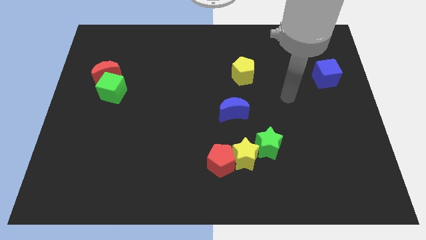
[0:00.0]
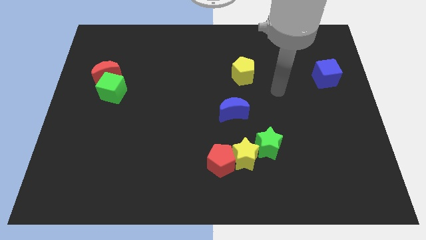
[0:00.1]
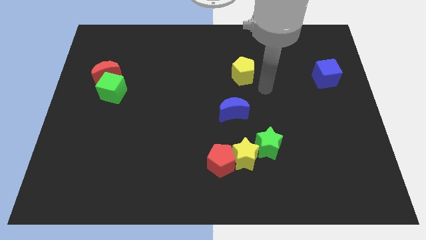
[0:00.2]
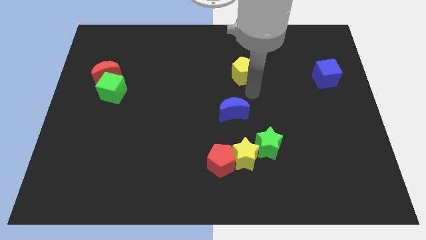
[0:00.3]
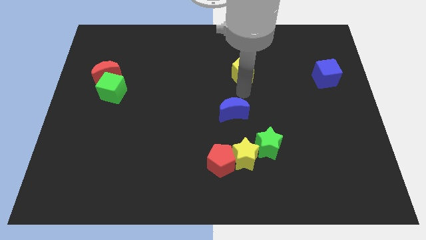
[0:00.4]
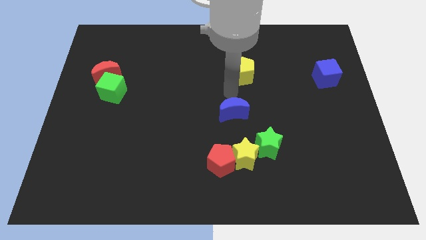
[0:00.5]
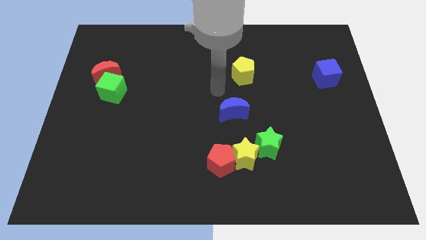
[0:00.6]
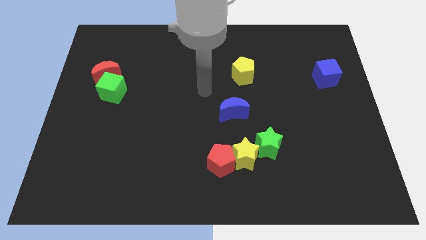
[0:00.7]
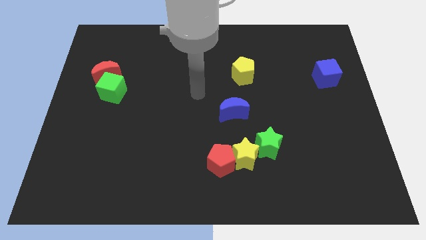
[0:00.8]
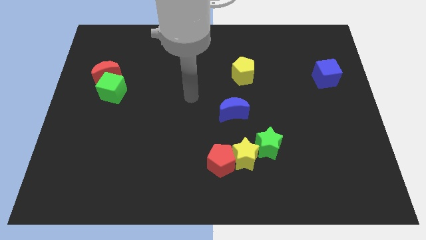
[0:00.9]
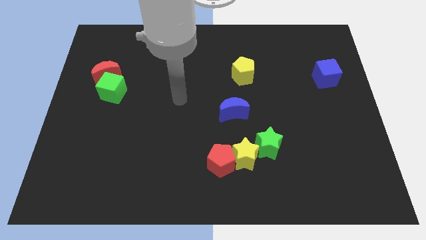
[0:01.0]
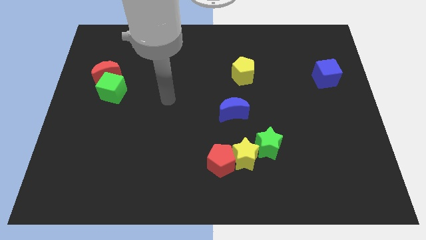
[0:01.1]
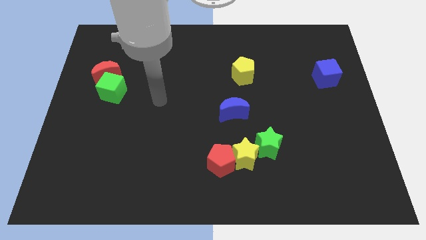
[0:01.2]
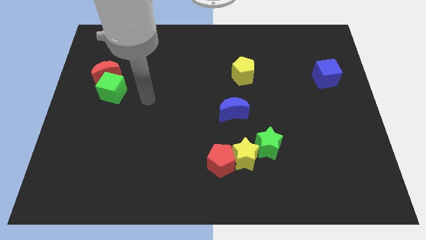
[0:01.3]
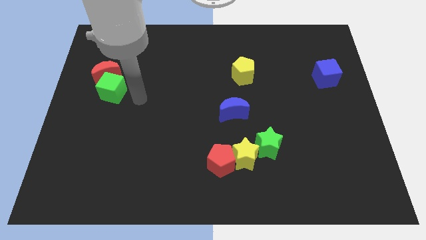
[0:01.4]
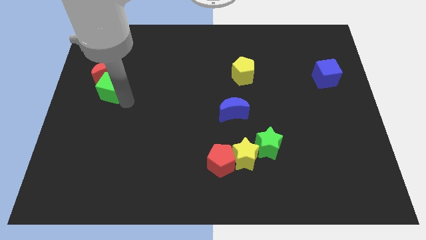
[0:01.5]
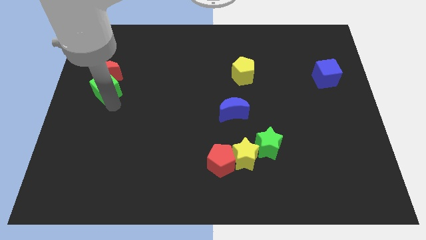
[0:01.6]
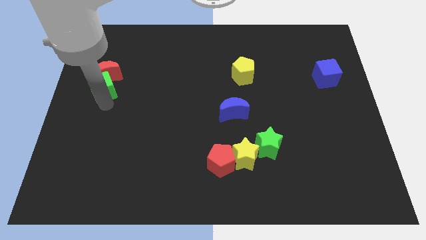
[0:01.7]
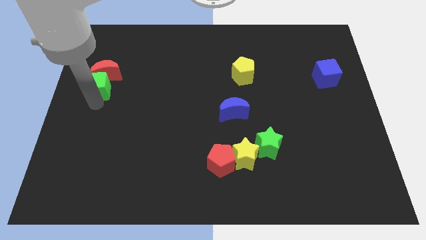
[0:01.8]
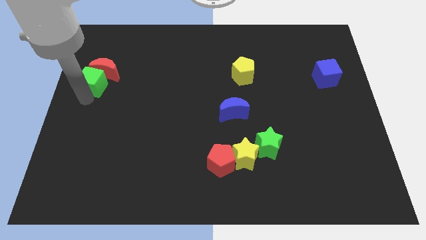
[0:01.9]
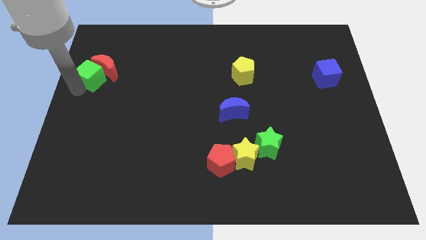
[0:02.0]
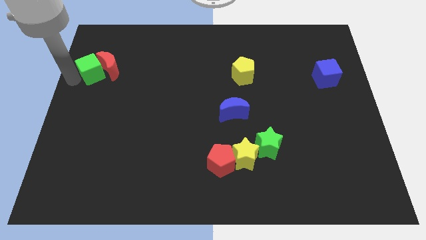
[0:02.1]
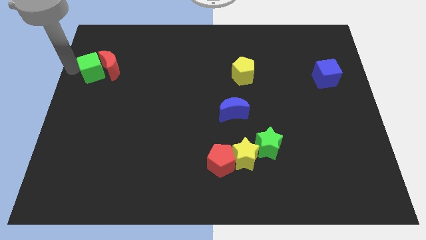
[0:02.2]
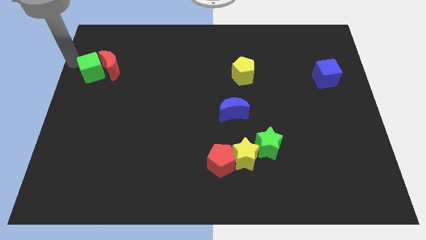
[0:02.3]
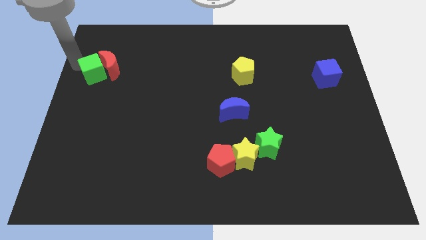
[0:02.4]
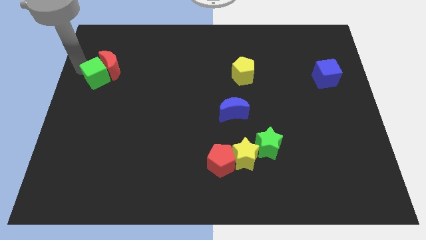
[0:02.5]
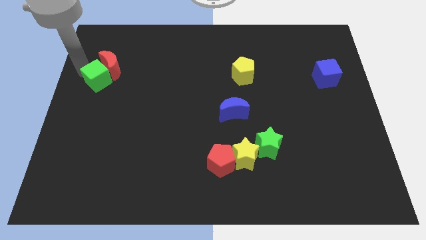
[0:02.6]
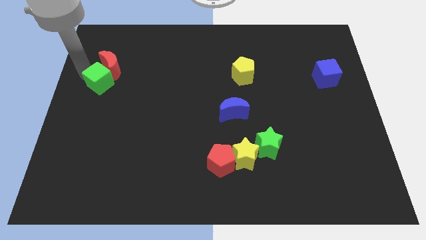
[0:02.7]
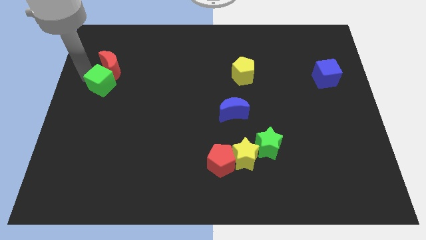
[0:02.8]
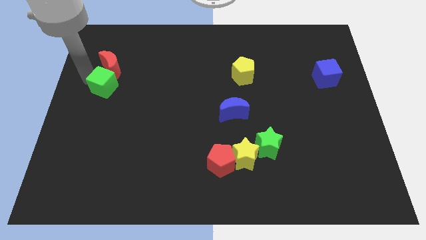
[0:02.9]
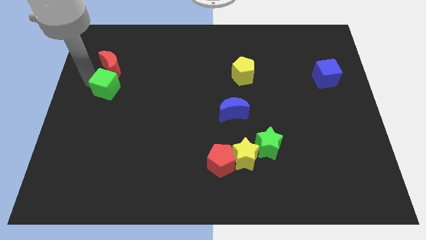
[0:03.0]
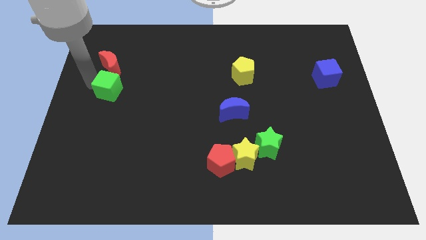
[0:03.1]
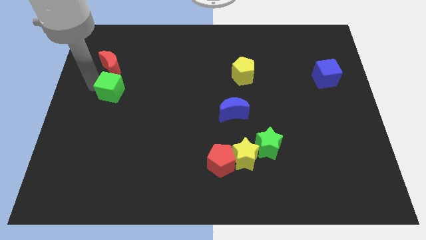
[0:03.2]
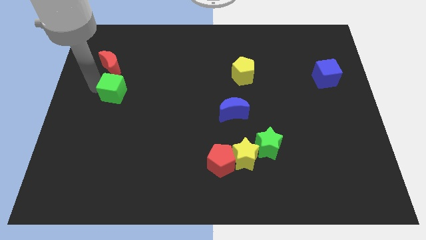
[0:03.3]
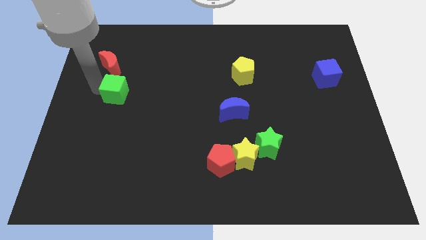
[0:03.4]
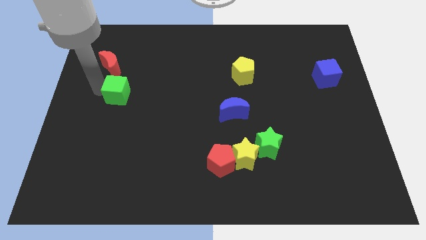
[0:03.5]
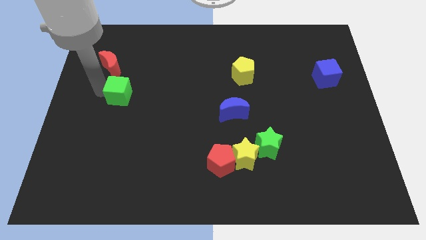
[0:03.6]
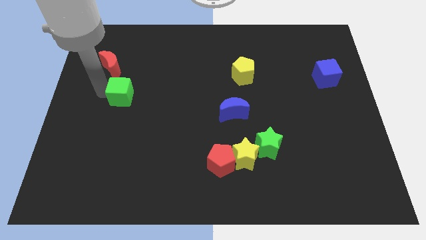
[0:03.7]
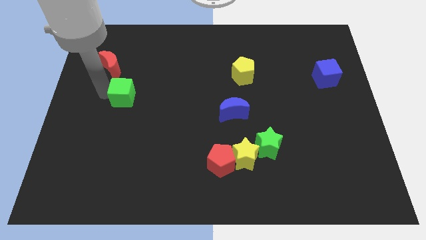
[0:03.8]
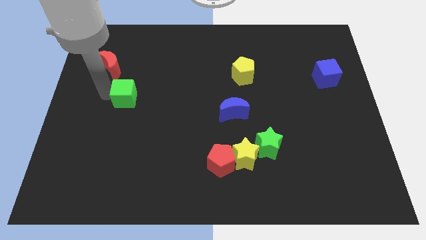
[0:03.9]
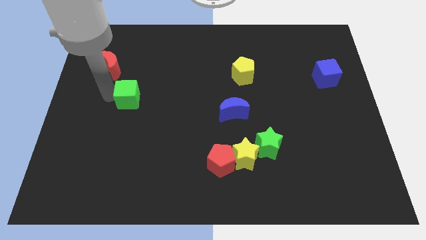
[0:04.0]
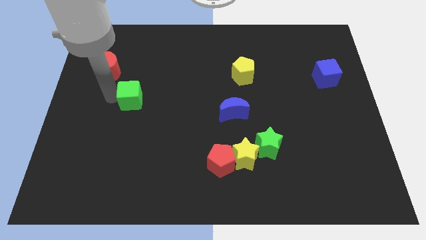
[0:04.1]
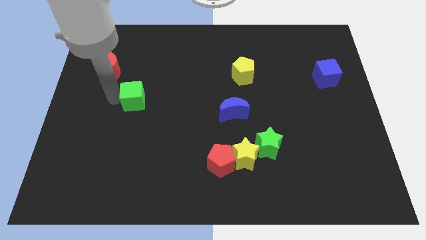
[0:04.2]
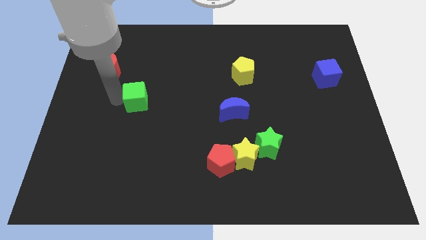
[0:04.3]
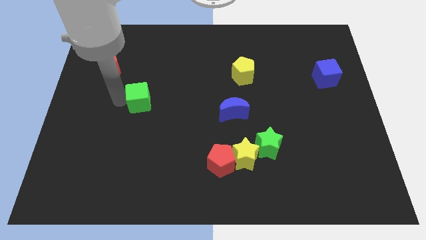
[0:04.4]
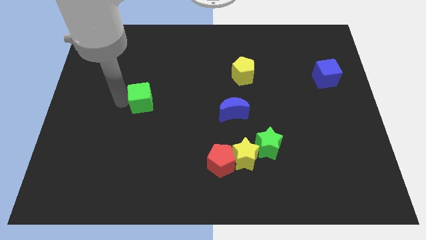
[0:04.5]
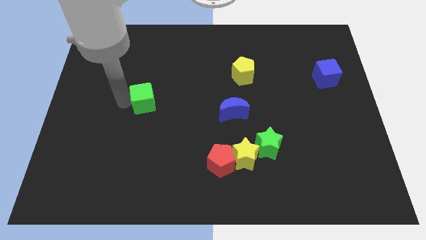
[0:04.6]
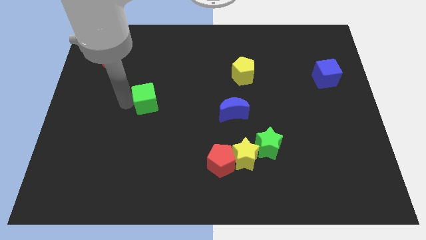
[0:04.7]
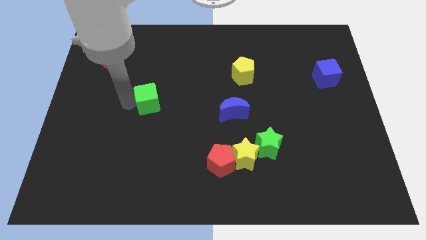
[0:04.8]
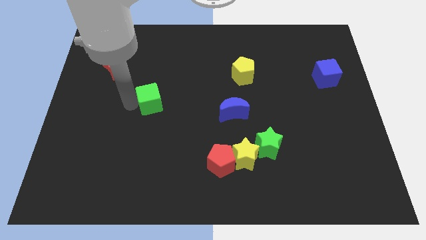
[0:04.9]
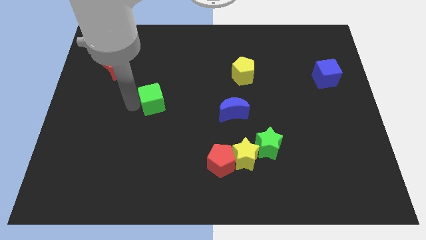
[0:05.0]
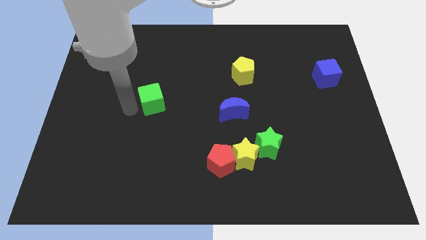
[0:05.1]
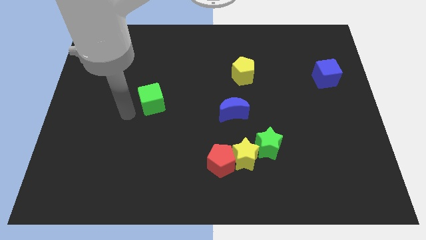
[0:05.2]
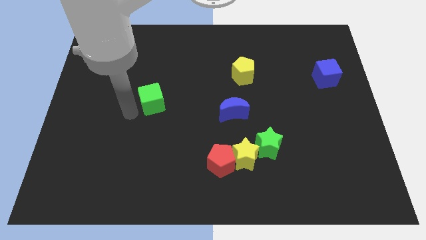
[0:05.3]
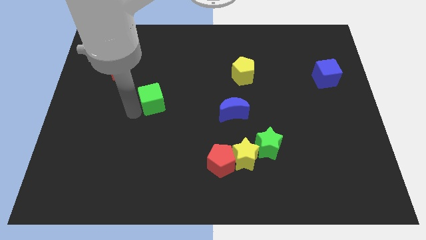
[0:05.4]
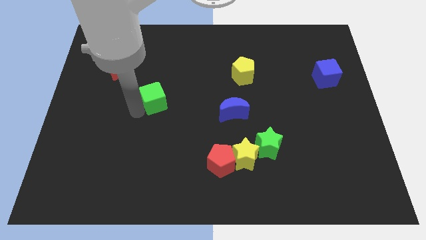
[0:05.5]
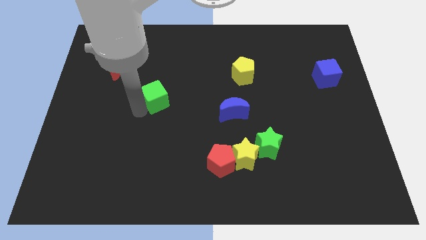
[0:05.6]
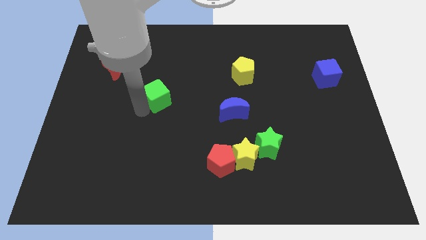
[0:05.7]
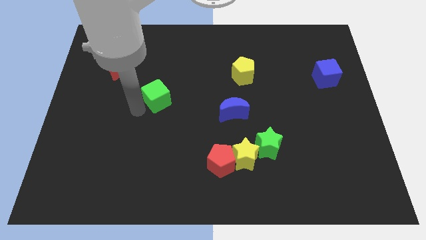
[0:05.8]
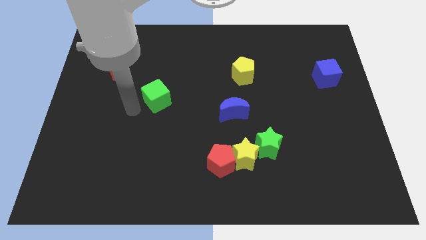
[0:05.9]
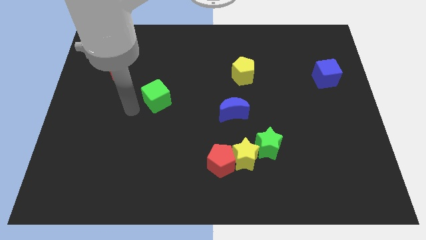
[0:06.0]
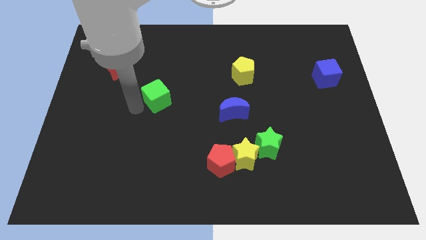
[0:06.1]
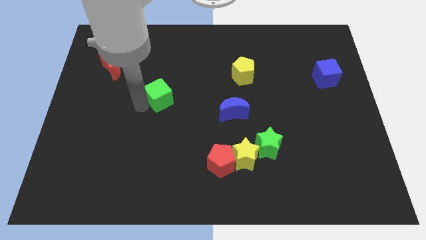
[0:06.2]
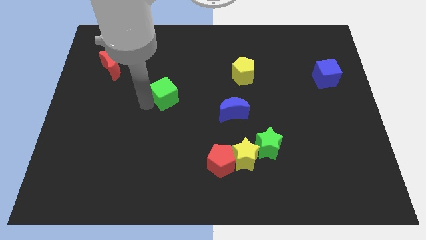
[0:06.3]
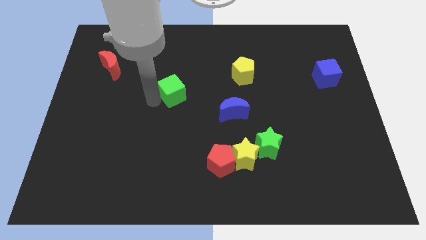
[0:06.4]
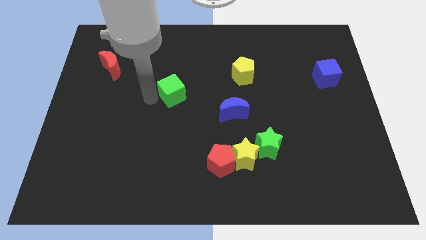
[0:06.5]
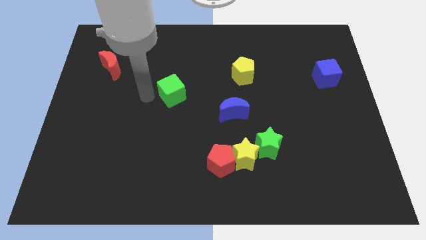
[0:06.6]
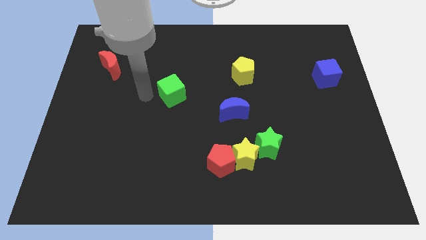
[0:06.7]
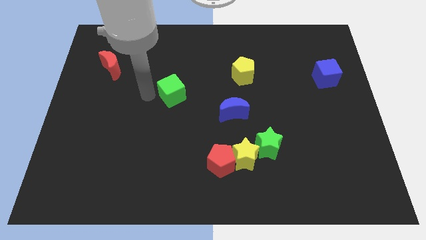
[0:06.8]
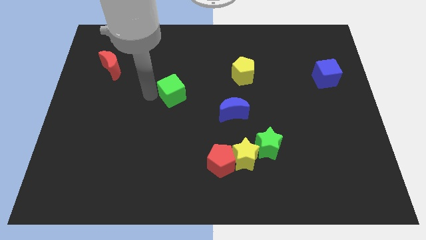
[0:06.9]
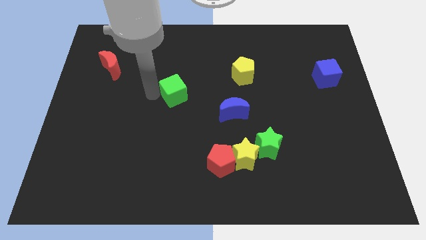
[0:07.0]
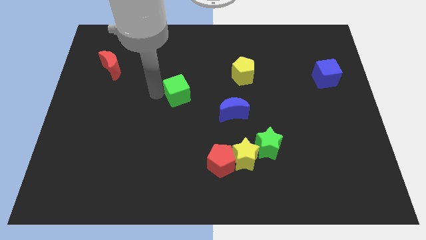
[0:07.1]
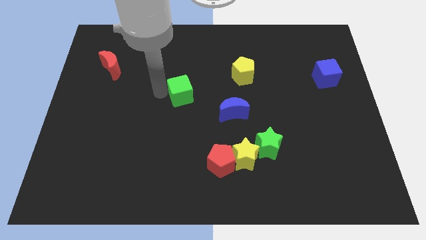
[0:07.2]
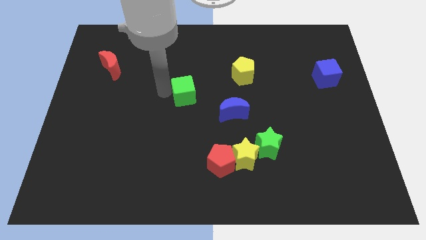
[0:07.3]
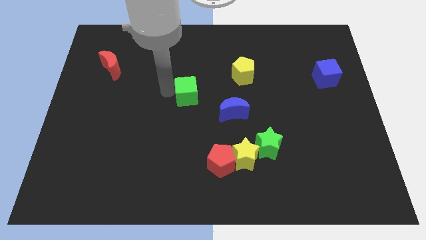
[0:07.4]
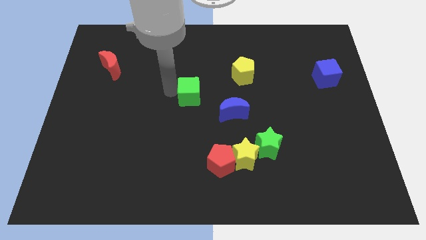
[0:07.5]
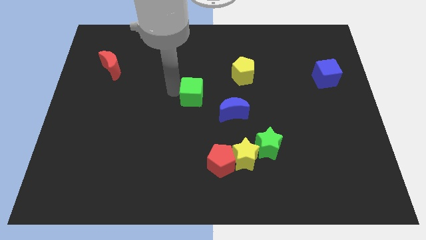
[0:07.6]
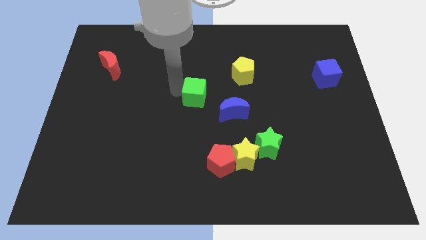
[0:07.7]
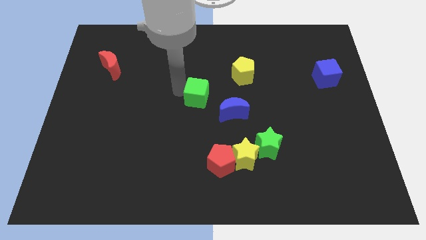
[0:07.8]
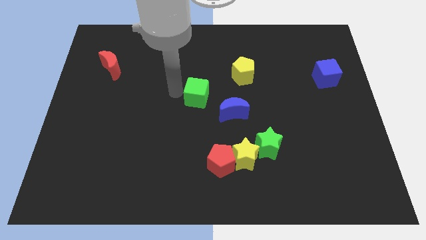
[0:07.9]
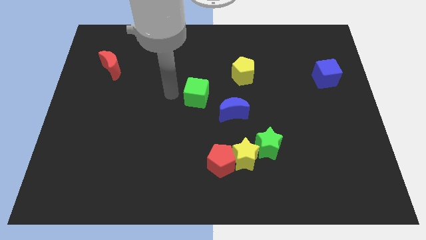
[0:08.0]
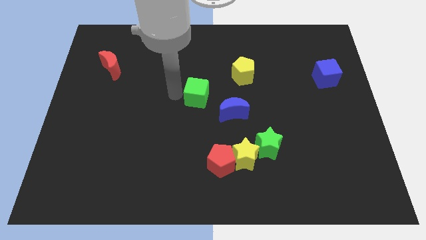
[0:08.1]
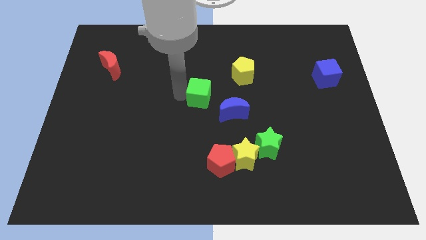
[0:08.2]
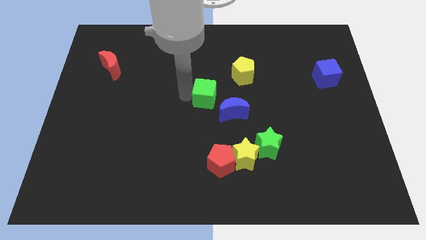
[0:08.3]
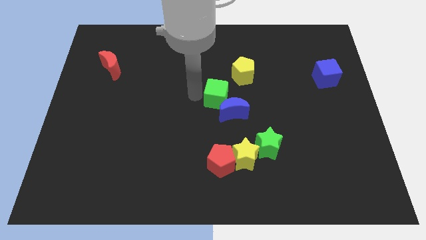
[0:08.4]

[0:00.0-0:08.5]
move the green cube close to the blue moon
